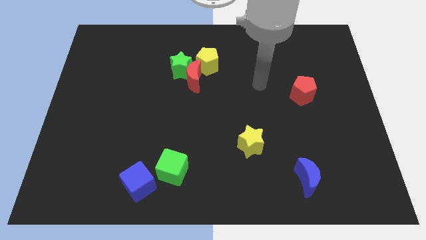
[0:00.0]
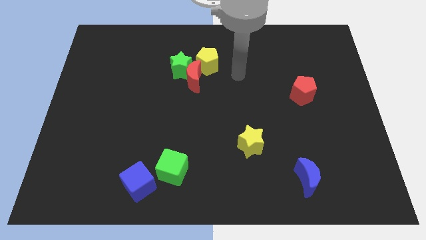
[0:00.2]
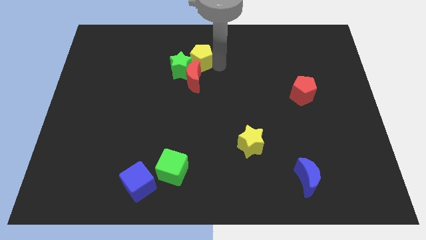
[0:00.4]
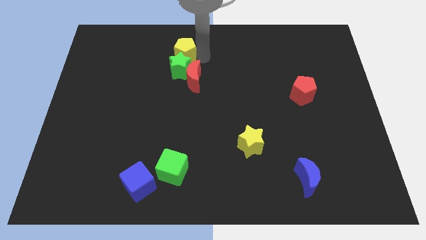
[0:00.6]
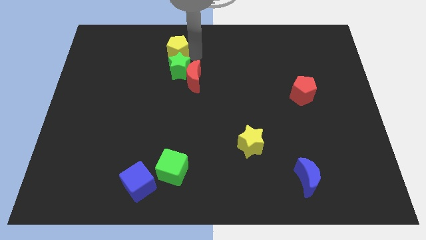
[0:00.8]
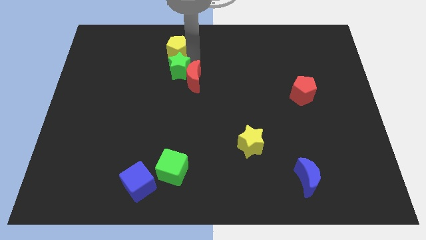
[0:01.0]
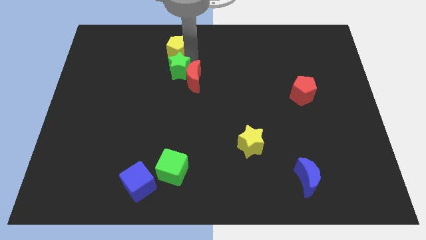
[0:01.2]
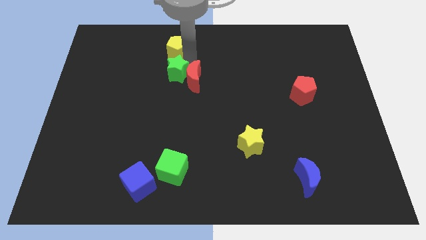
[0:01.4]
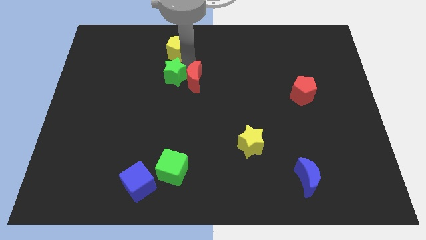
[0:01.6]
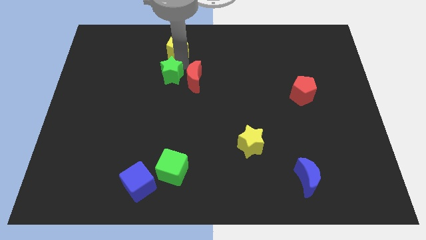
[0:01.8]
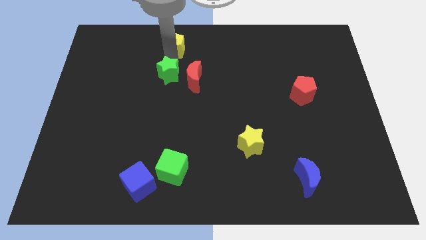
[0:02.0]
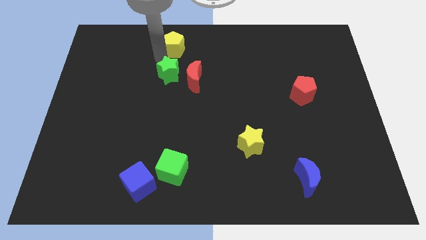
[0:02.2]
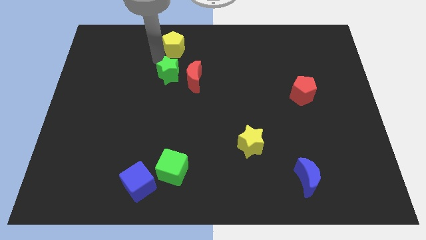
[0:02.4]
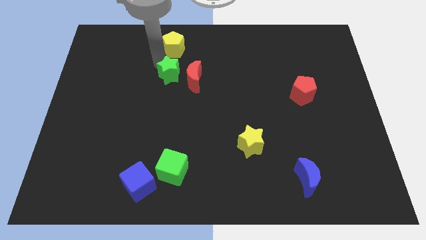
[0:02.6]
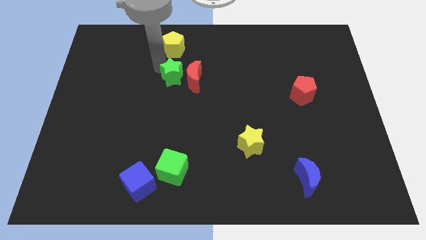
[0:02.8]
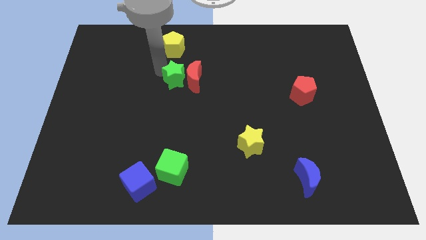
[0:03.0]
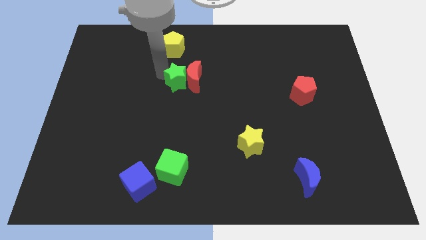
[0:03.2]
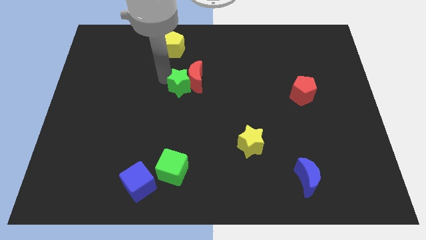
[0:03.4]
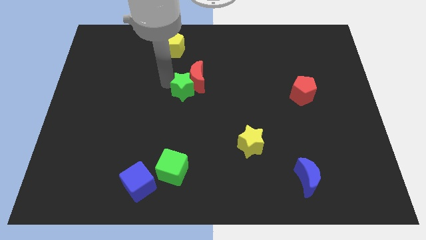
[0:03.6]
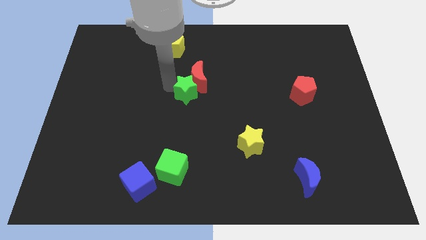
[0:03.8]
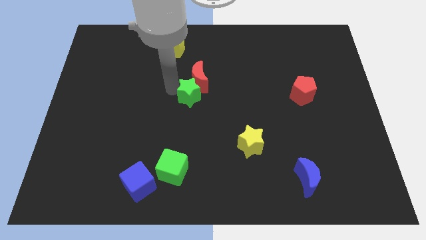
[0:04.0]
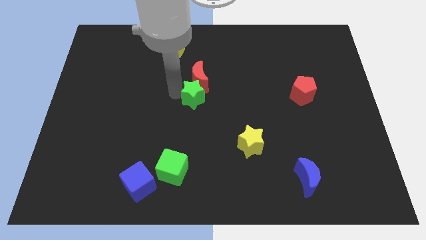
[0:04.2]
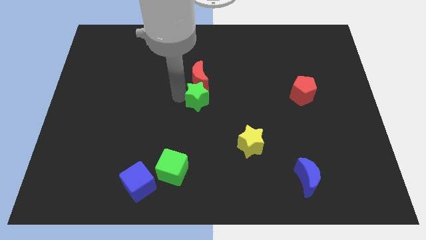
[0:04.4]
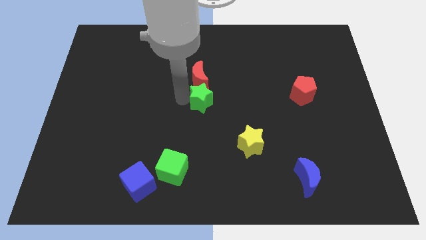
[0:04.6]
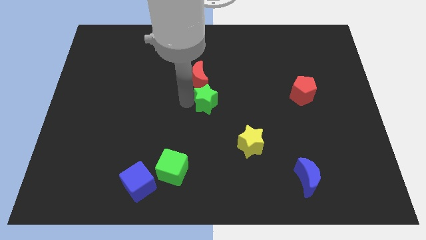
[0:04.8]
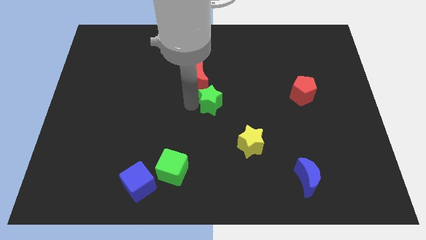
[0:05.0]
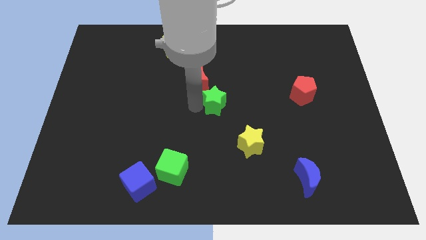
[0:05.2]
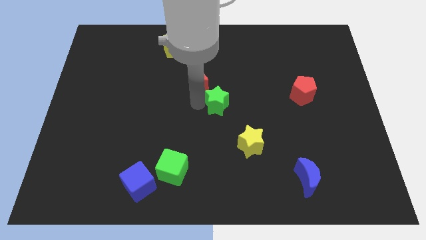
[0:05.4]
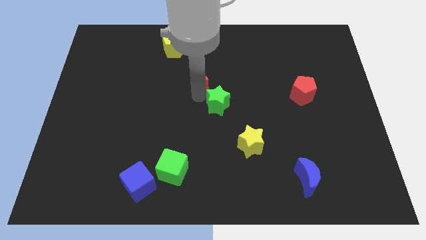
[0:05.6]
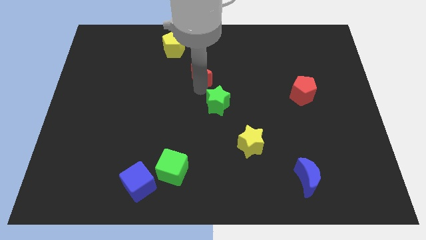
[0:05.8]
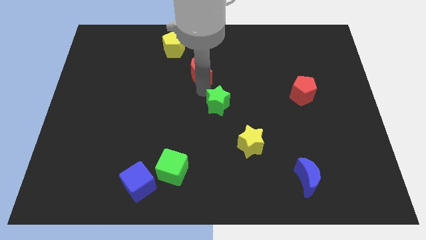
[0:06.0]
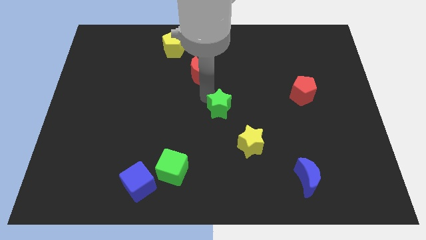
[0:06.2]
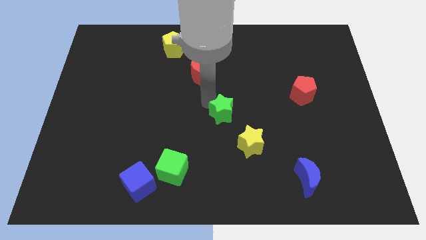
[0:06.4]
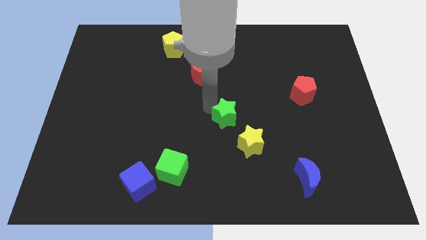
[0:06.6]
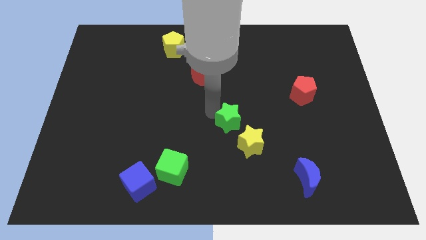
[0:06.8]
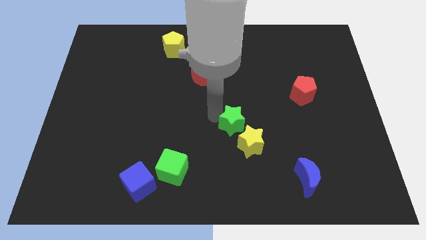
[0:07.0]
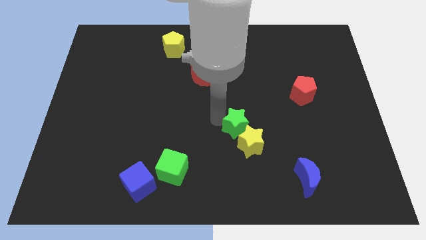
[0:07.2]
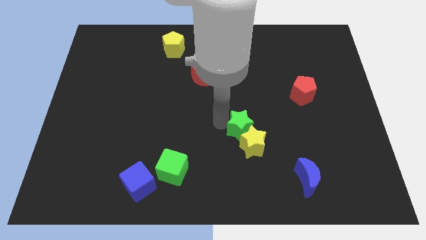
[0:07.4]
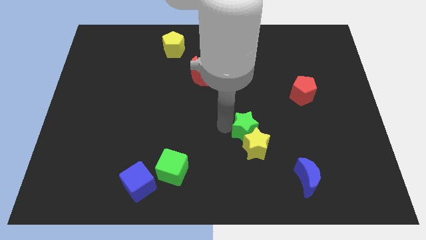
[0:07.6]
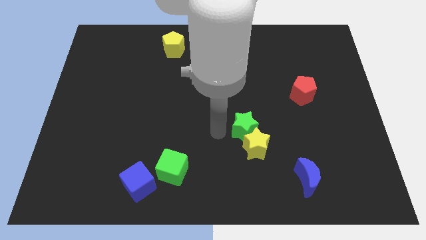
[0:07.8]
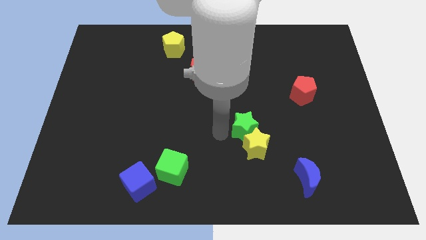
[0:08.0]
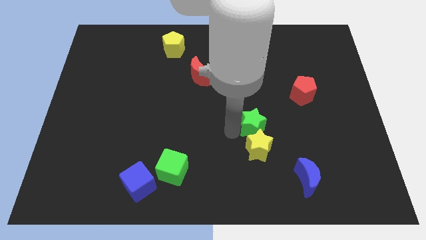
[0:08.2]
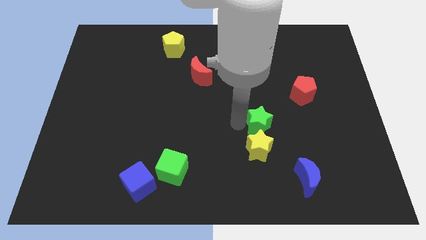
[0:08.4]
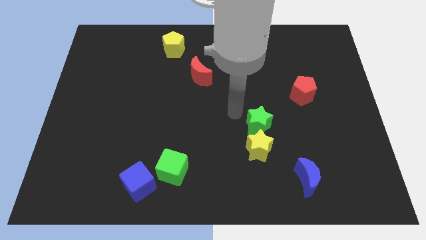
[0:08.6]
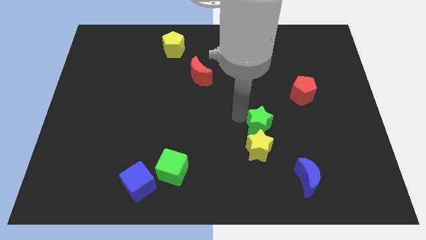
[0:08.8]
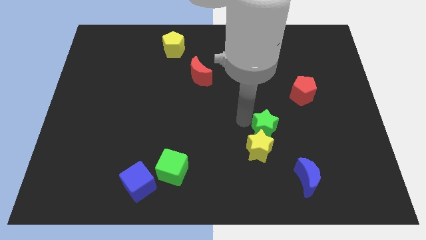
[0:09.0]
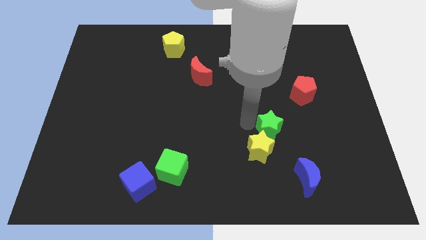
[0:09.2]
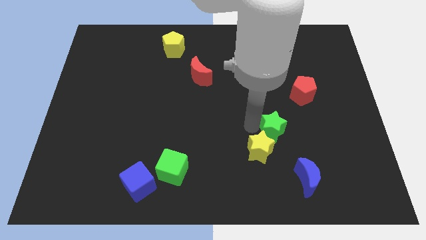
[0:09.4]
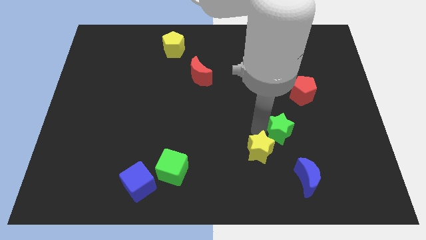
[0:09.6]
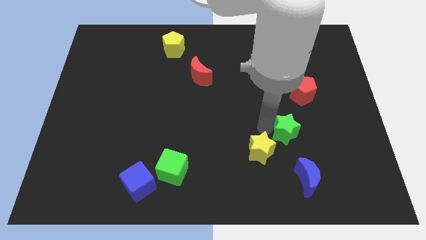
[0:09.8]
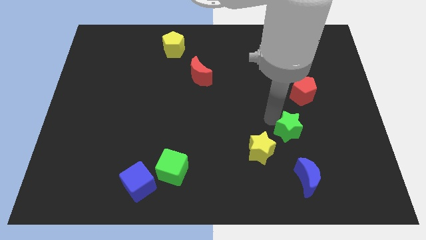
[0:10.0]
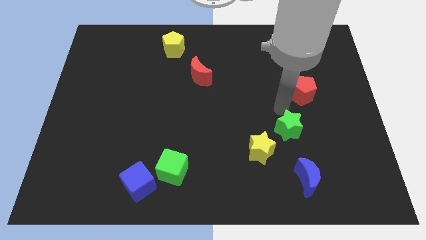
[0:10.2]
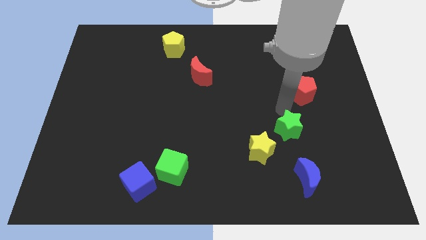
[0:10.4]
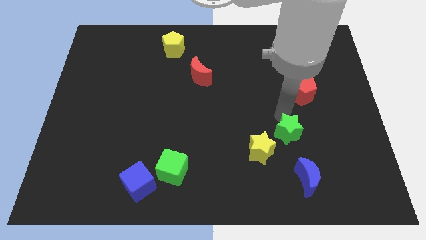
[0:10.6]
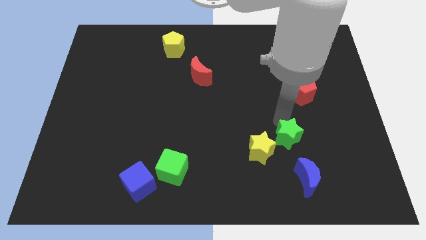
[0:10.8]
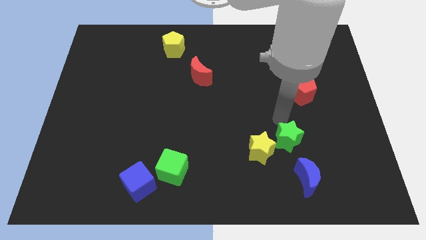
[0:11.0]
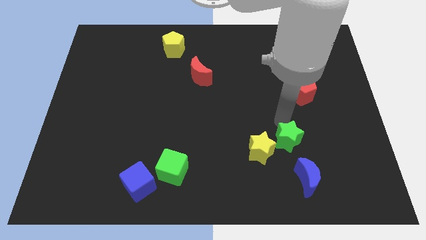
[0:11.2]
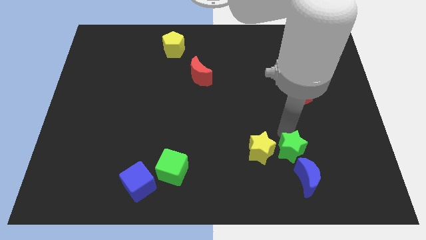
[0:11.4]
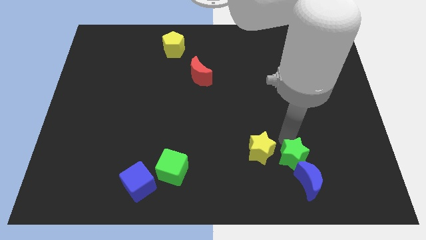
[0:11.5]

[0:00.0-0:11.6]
slide the green star towards the blue moon
